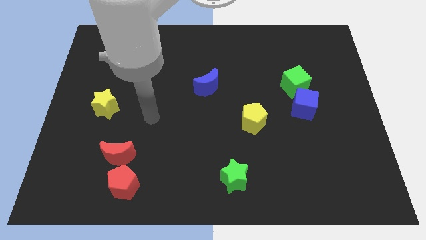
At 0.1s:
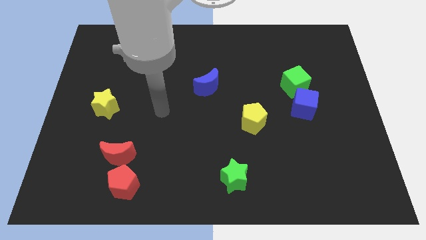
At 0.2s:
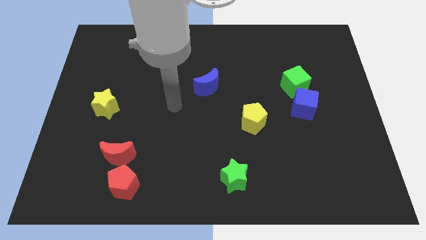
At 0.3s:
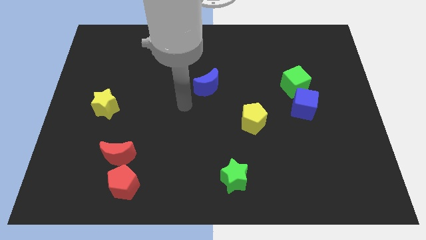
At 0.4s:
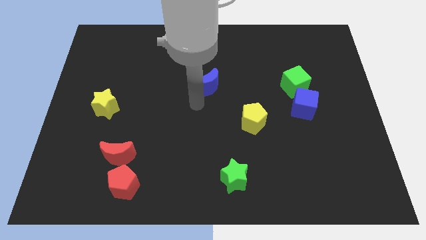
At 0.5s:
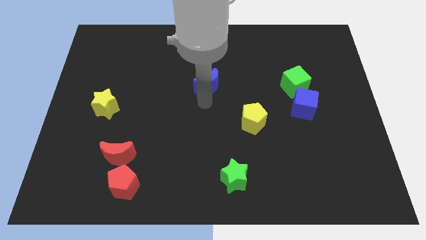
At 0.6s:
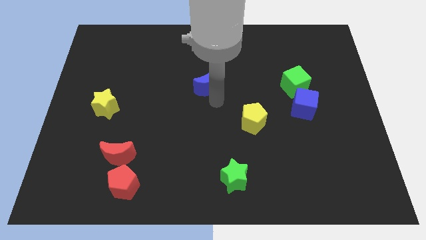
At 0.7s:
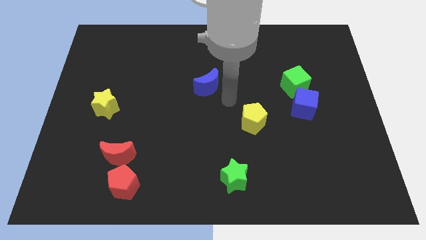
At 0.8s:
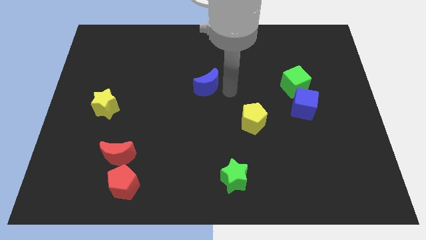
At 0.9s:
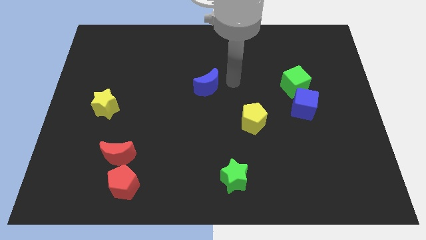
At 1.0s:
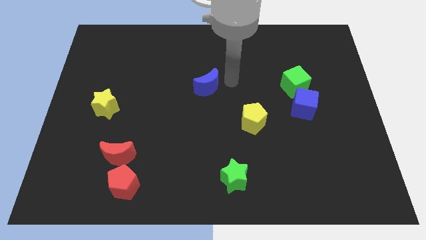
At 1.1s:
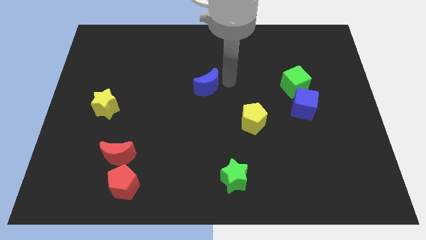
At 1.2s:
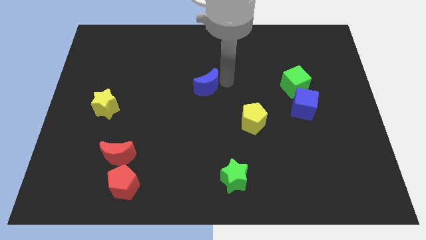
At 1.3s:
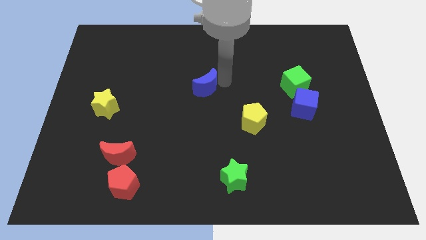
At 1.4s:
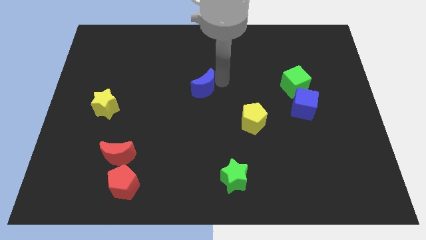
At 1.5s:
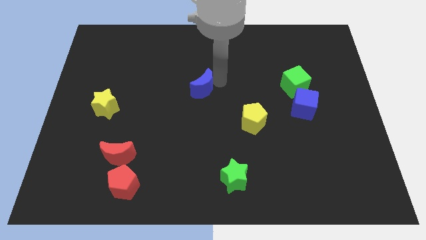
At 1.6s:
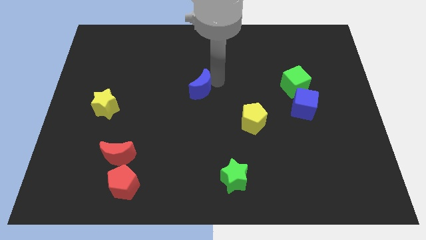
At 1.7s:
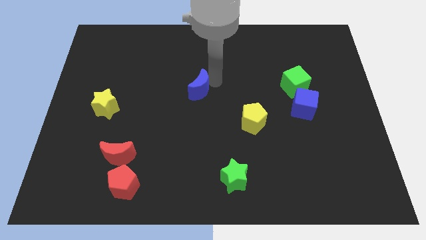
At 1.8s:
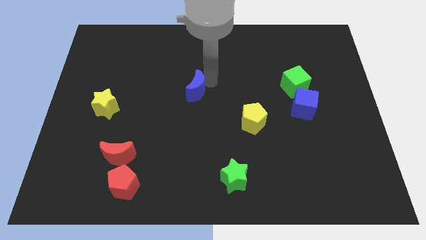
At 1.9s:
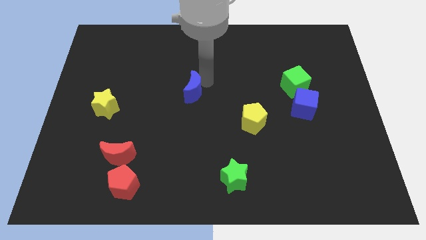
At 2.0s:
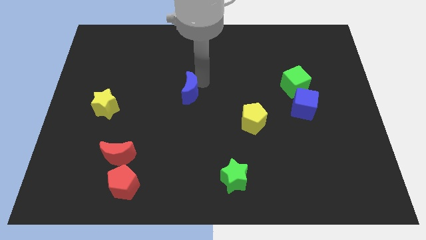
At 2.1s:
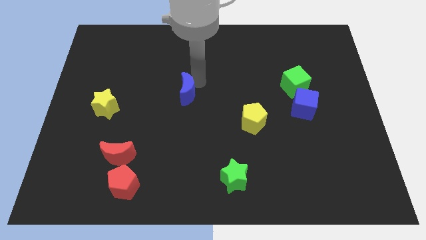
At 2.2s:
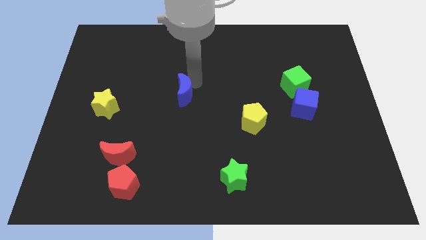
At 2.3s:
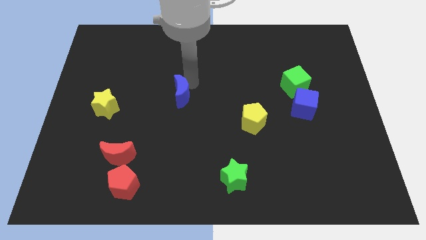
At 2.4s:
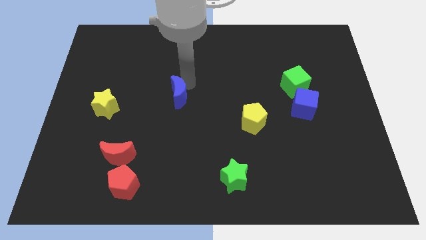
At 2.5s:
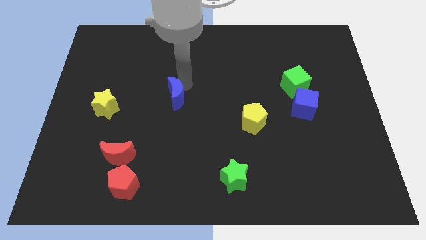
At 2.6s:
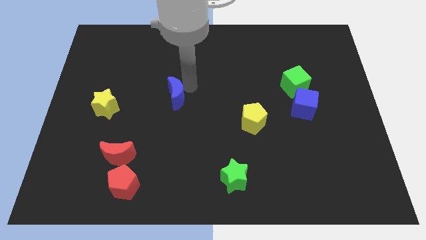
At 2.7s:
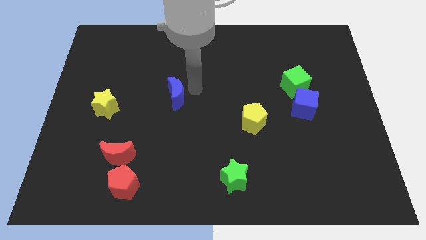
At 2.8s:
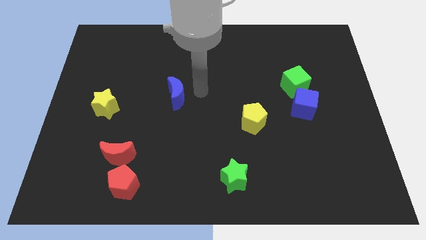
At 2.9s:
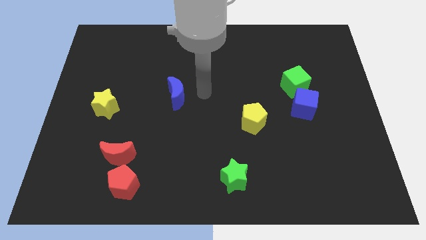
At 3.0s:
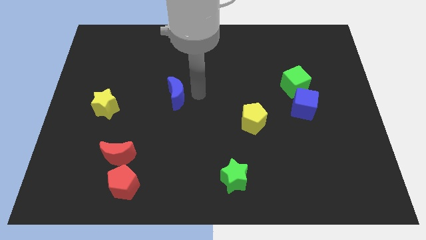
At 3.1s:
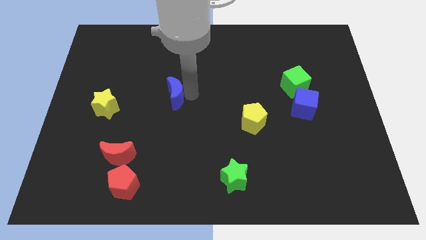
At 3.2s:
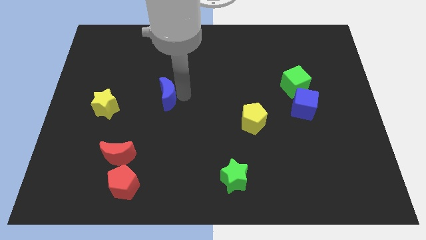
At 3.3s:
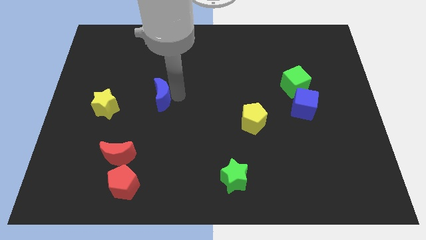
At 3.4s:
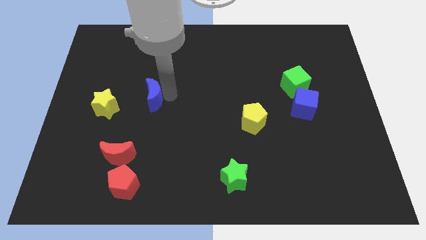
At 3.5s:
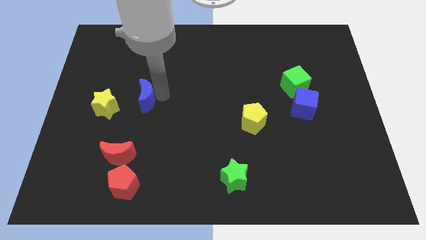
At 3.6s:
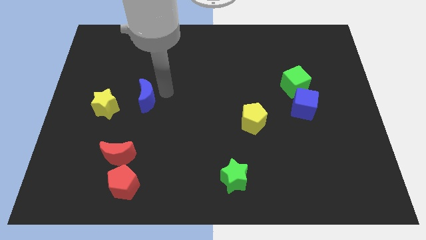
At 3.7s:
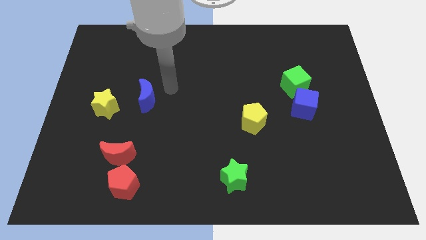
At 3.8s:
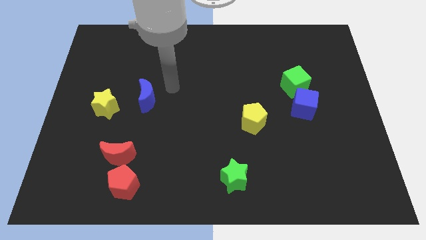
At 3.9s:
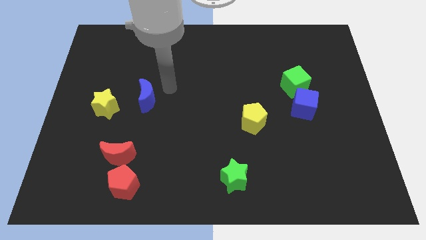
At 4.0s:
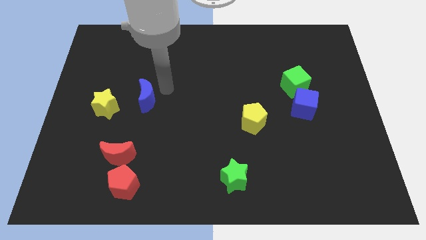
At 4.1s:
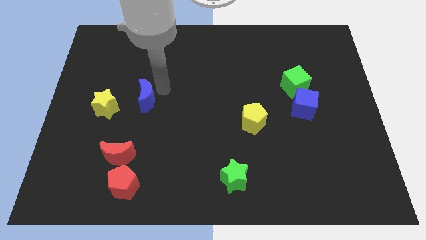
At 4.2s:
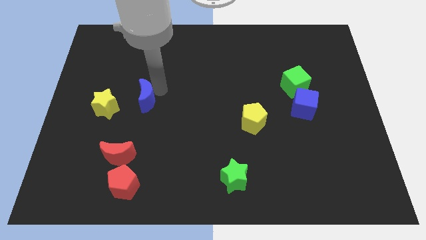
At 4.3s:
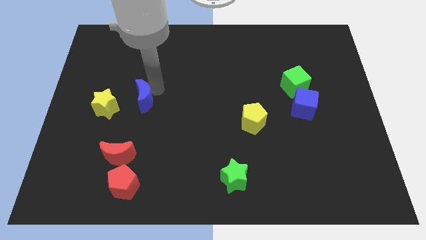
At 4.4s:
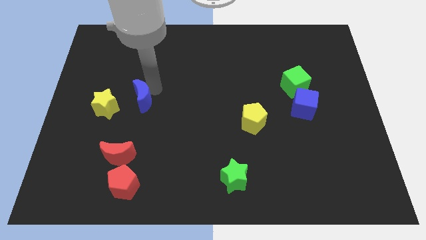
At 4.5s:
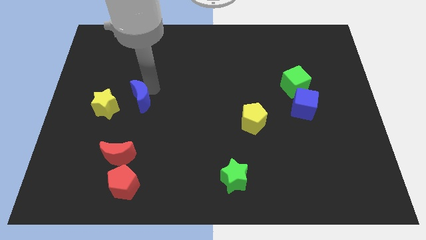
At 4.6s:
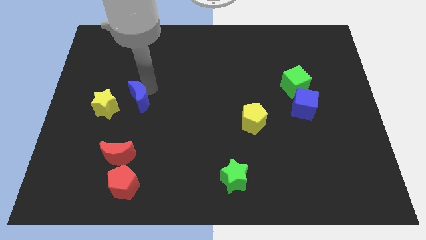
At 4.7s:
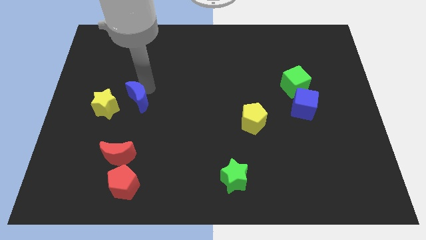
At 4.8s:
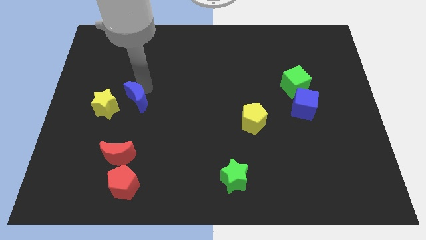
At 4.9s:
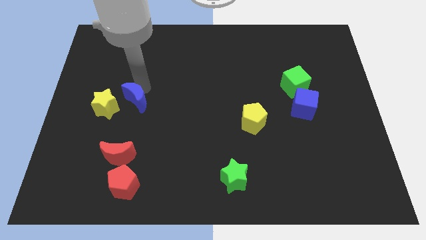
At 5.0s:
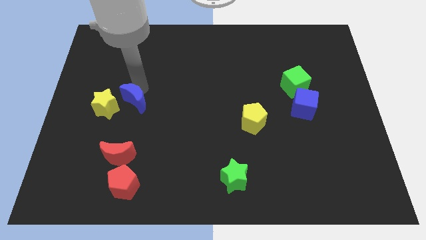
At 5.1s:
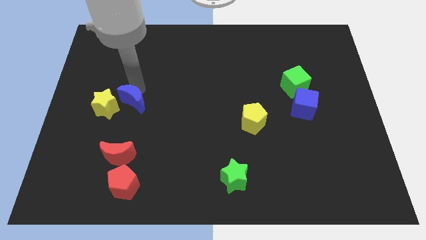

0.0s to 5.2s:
slide the blue moon close to the yellow star

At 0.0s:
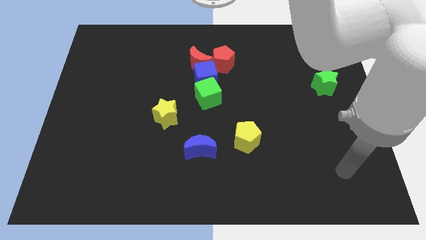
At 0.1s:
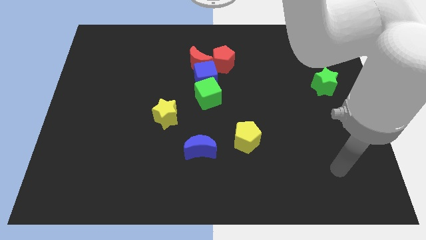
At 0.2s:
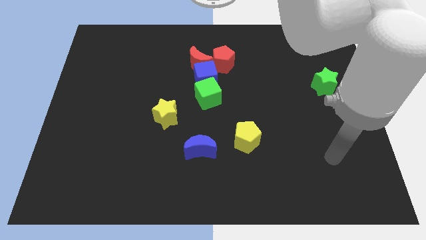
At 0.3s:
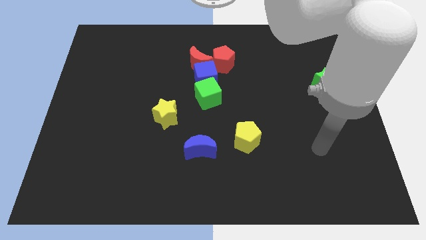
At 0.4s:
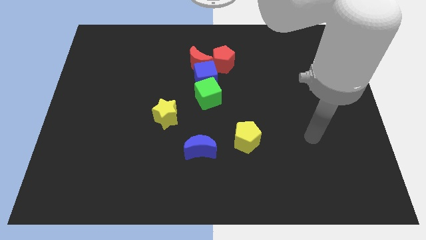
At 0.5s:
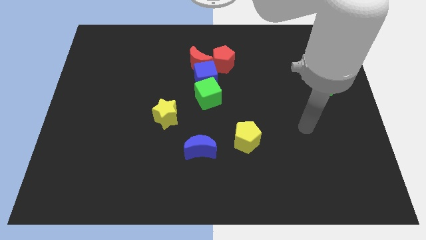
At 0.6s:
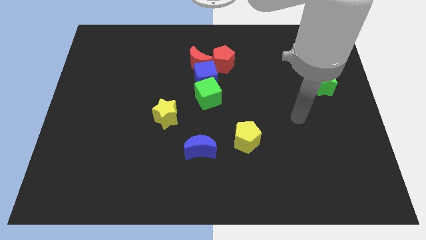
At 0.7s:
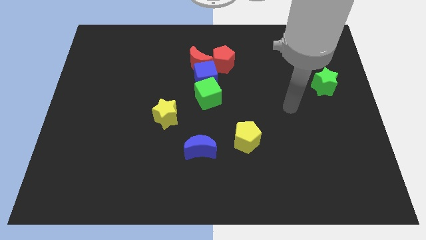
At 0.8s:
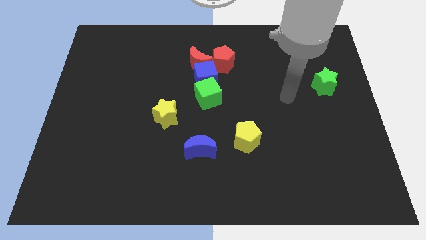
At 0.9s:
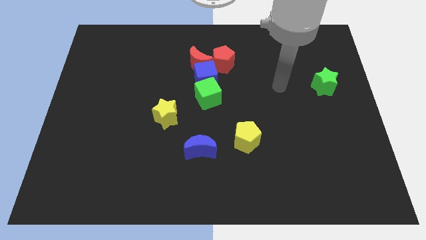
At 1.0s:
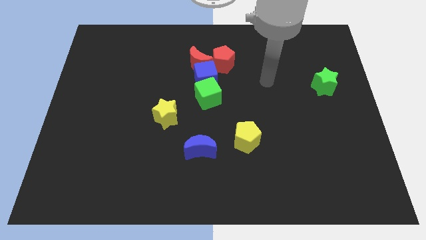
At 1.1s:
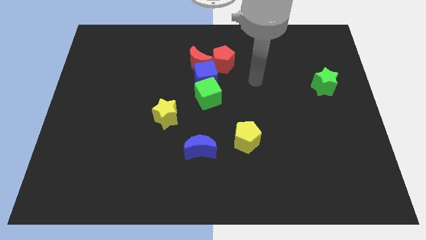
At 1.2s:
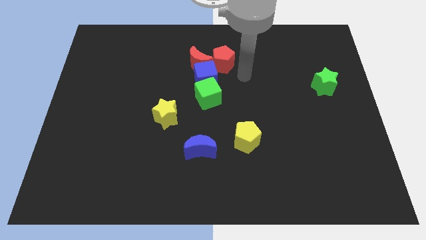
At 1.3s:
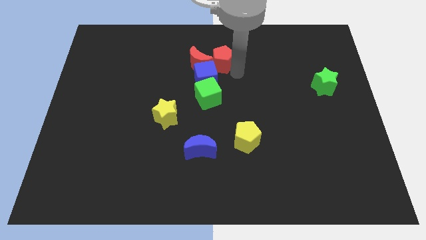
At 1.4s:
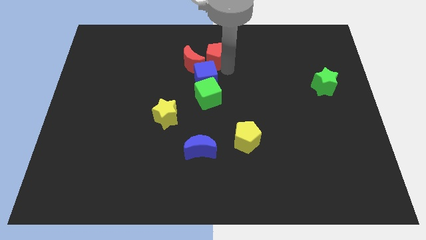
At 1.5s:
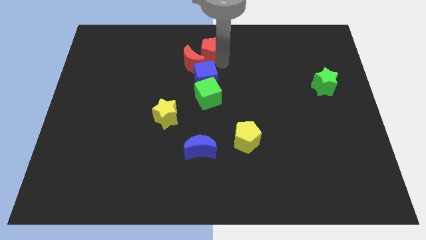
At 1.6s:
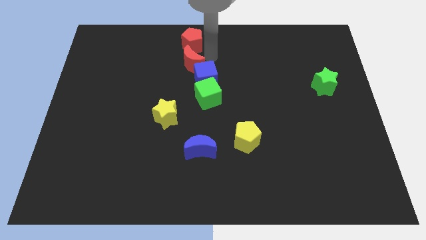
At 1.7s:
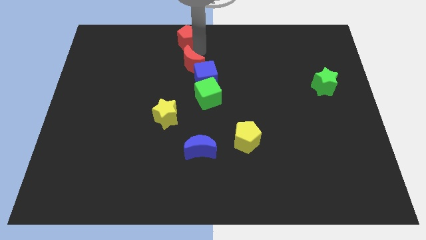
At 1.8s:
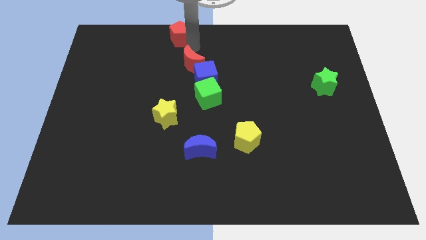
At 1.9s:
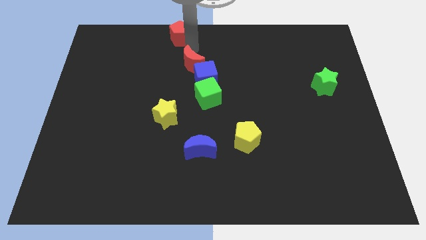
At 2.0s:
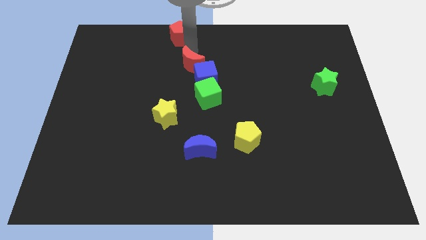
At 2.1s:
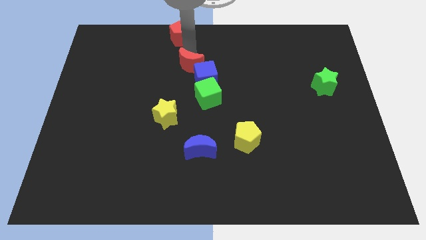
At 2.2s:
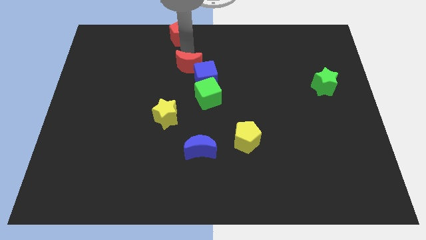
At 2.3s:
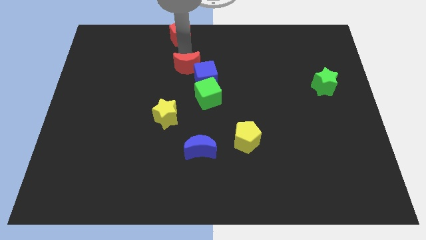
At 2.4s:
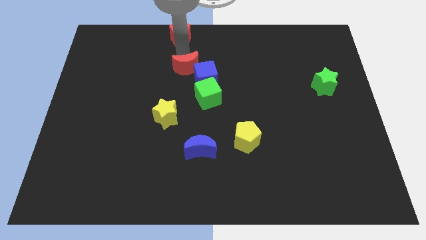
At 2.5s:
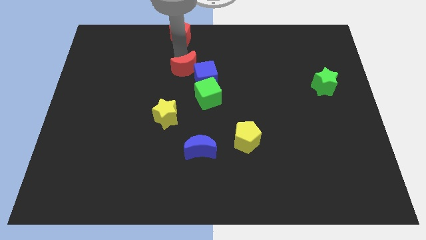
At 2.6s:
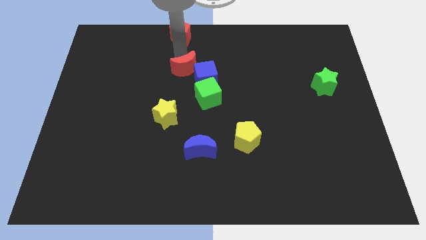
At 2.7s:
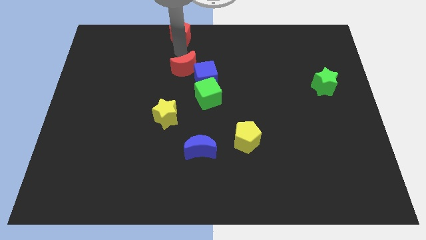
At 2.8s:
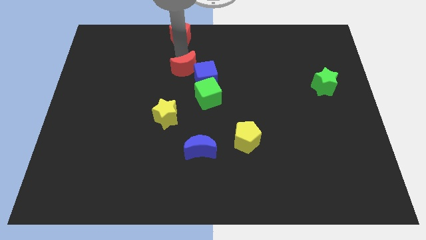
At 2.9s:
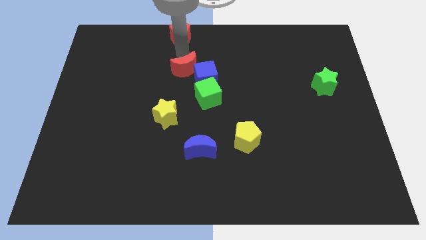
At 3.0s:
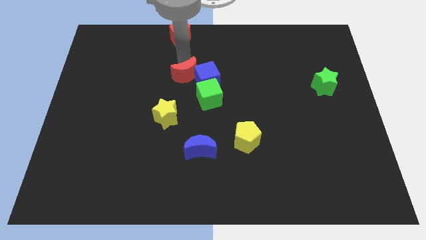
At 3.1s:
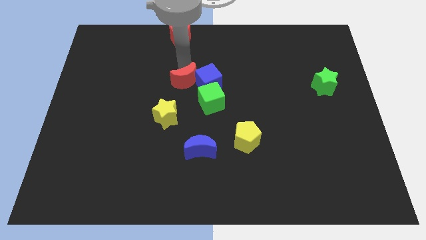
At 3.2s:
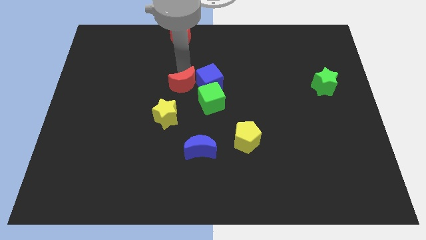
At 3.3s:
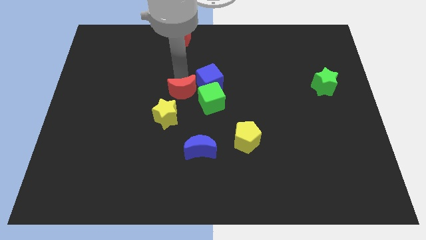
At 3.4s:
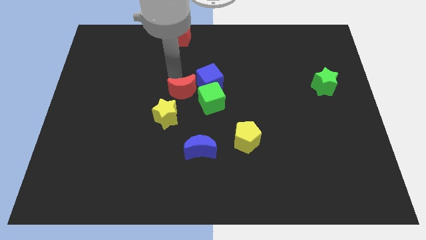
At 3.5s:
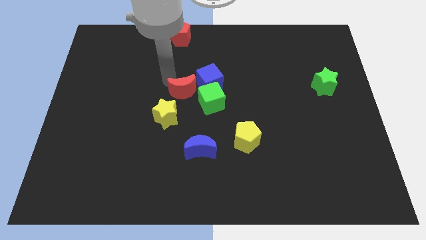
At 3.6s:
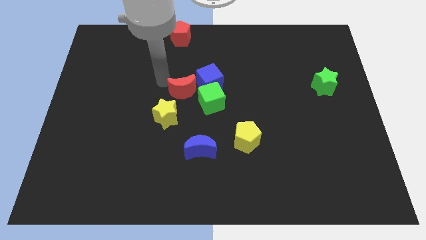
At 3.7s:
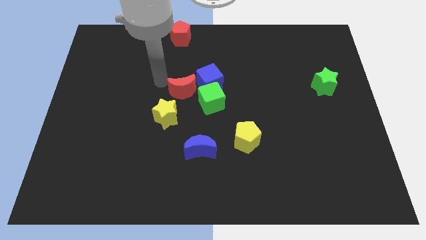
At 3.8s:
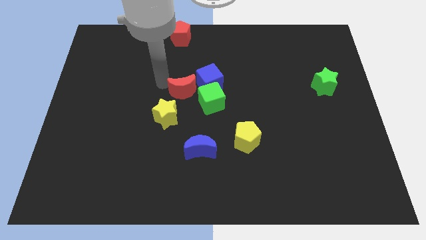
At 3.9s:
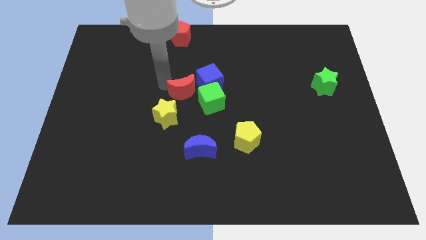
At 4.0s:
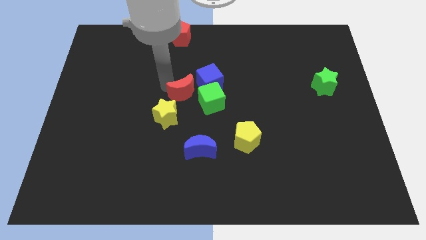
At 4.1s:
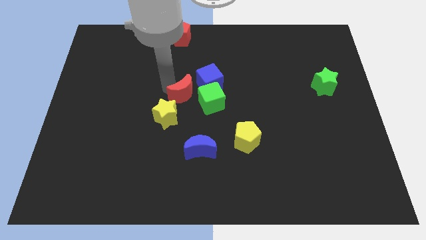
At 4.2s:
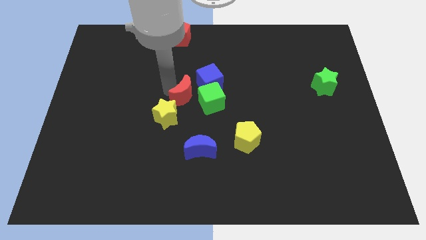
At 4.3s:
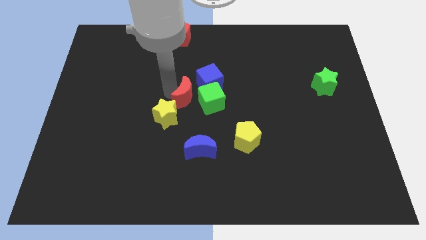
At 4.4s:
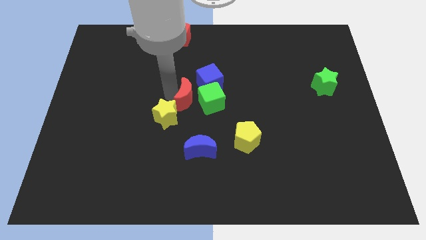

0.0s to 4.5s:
slide the red moon towards the green cube
